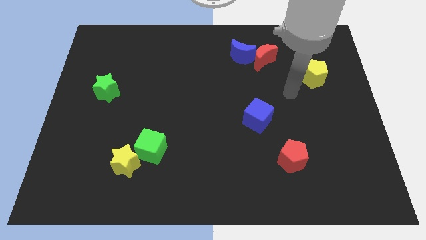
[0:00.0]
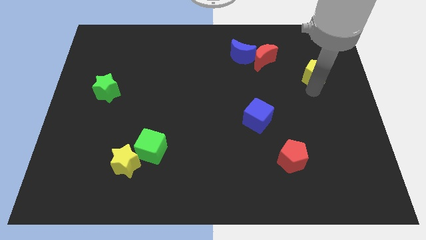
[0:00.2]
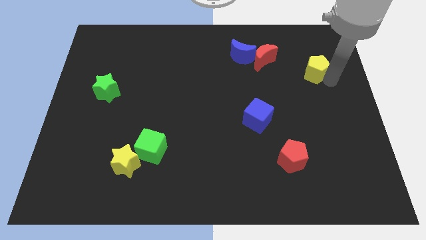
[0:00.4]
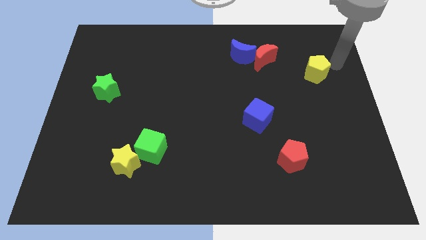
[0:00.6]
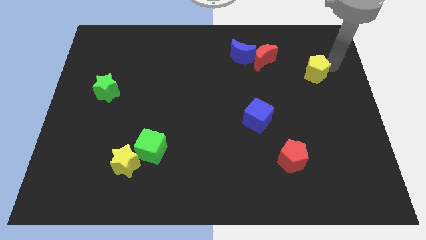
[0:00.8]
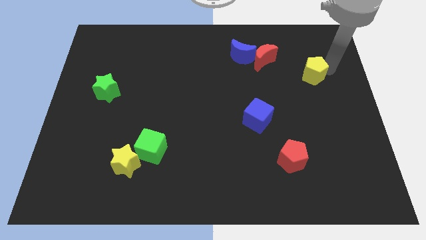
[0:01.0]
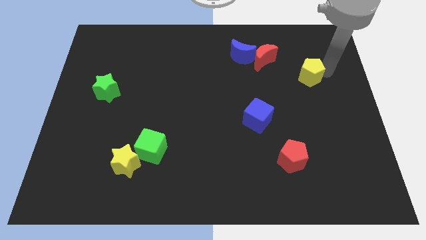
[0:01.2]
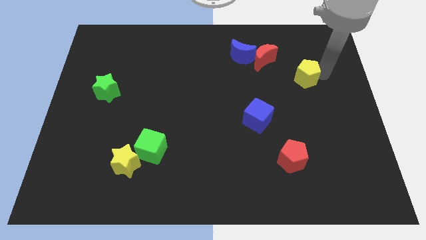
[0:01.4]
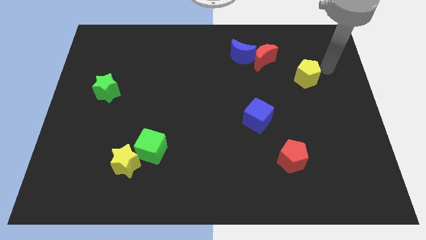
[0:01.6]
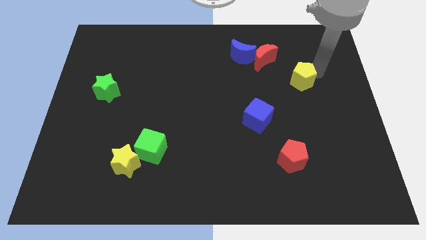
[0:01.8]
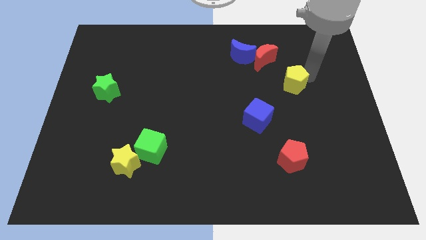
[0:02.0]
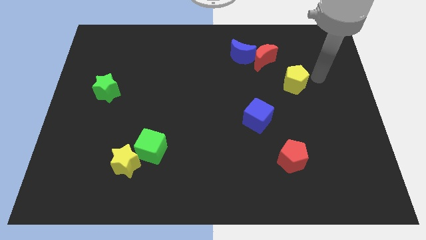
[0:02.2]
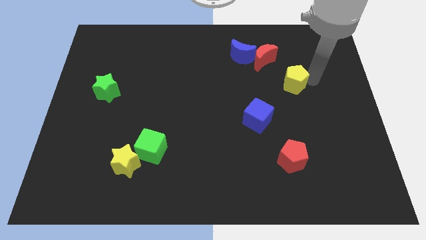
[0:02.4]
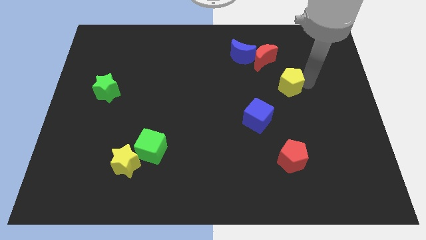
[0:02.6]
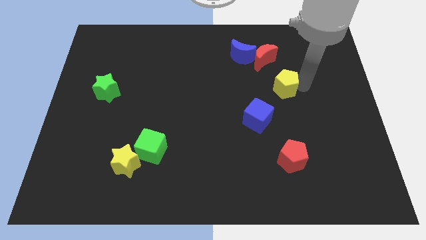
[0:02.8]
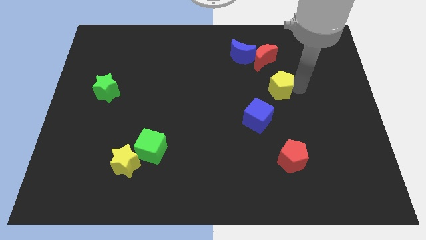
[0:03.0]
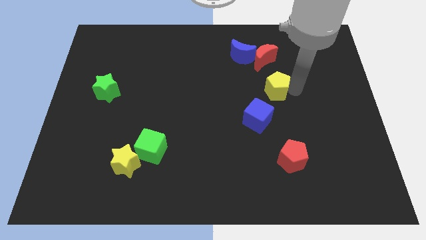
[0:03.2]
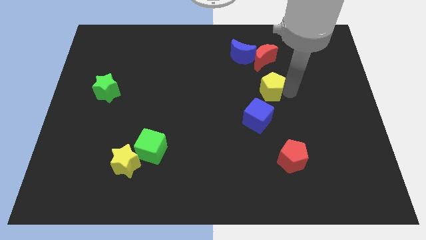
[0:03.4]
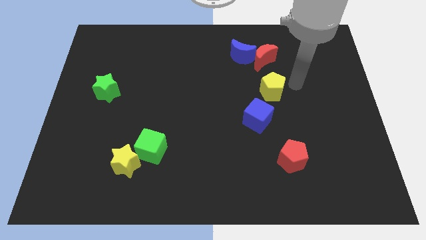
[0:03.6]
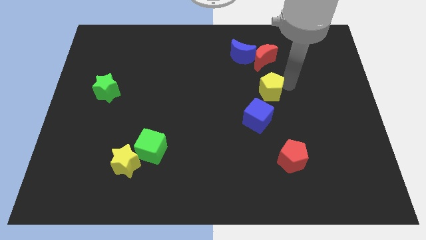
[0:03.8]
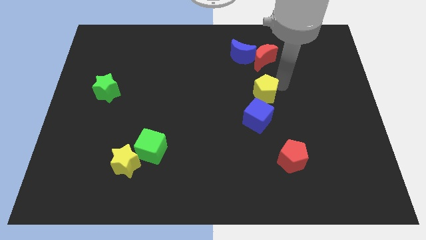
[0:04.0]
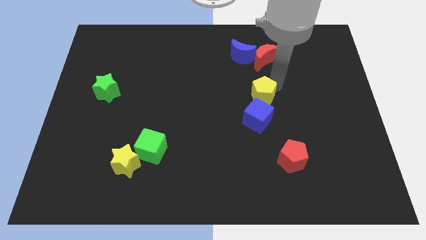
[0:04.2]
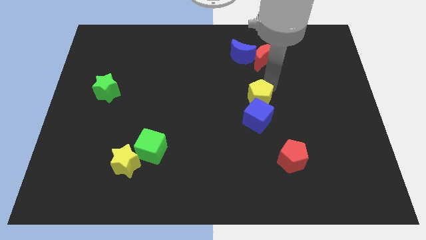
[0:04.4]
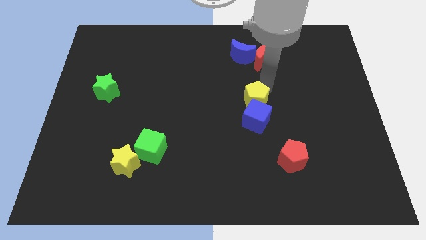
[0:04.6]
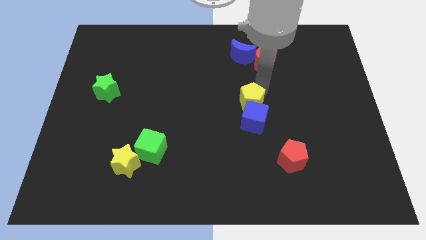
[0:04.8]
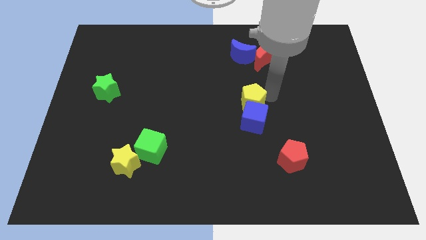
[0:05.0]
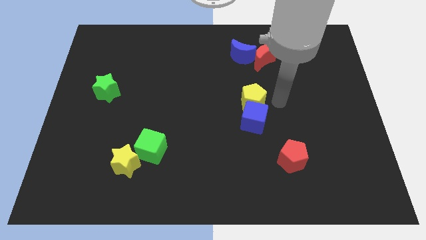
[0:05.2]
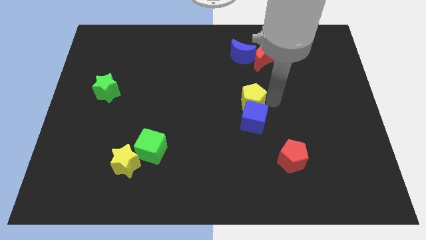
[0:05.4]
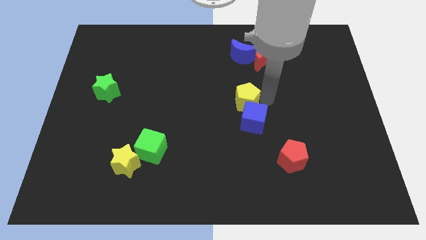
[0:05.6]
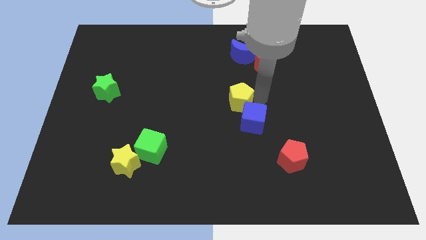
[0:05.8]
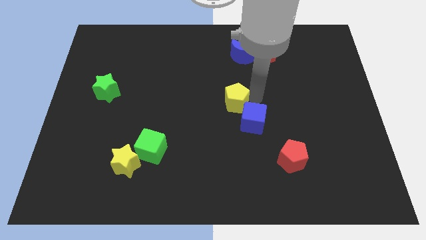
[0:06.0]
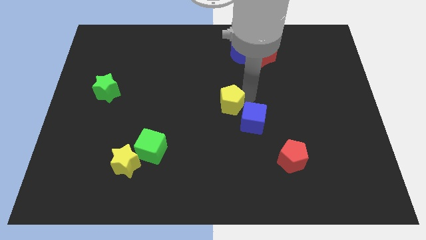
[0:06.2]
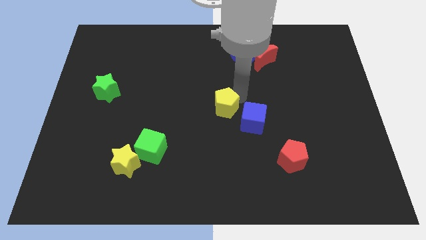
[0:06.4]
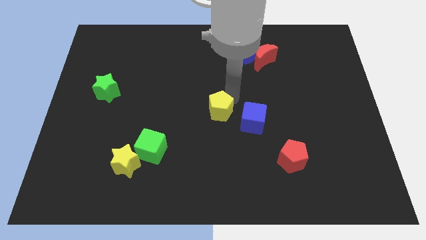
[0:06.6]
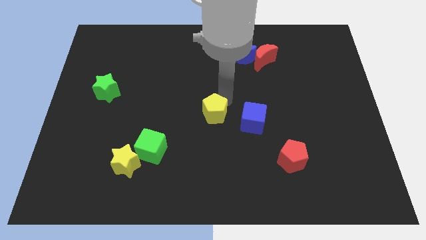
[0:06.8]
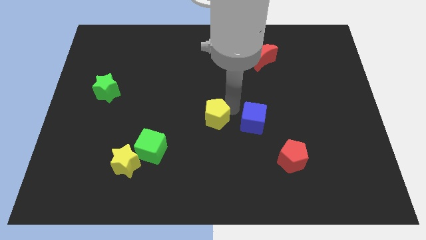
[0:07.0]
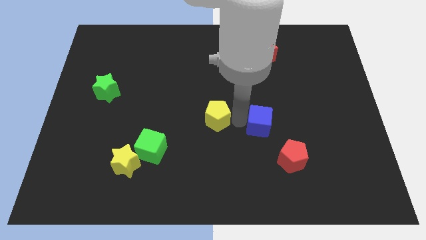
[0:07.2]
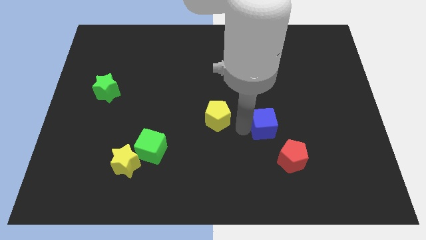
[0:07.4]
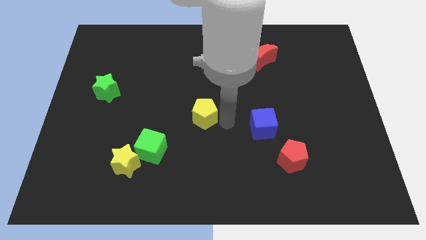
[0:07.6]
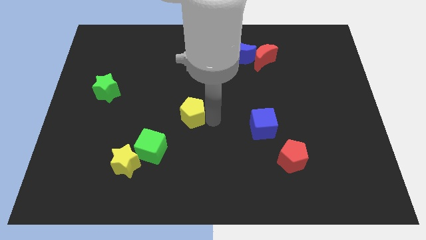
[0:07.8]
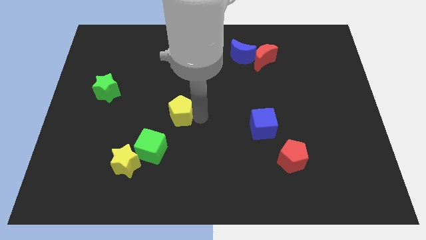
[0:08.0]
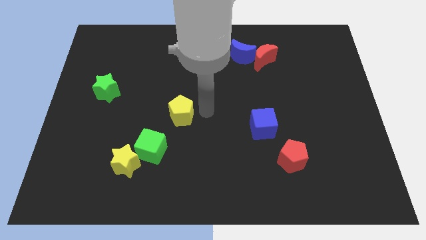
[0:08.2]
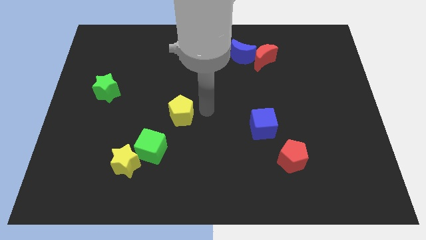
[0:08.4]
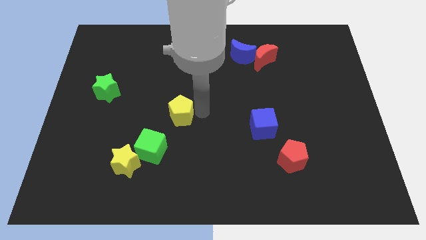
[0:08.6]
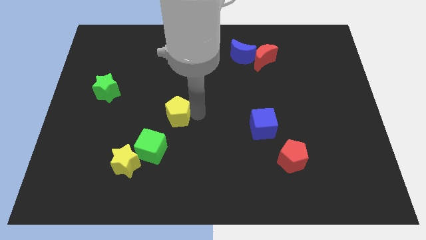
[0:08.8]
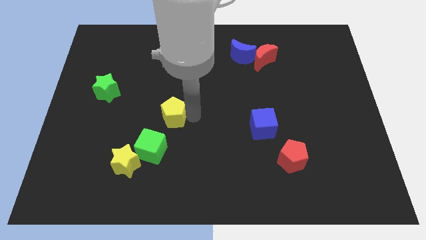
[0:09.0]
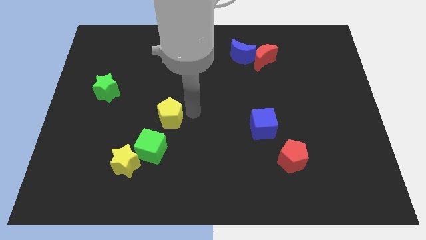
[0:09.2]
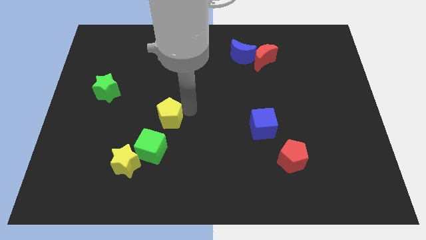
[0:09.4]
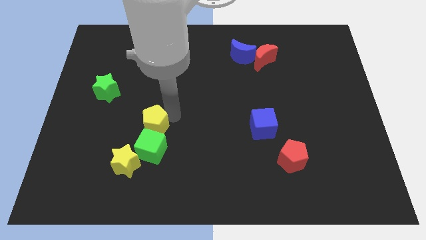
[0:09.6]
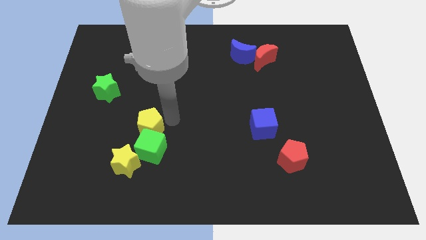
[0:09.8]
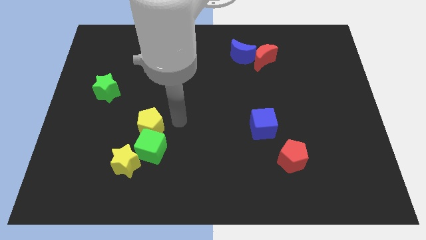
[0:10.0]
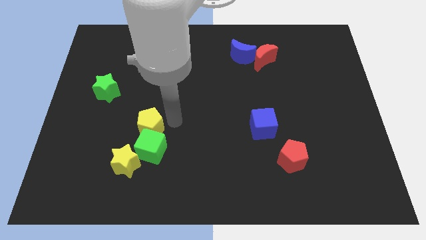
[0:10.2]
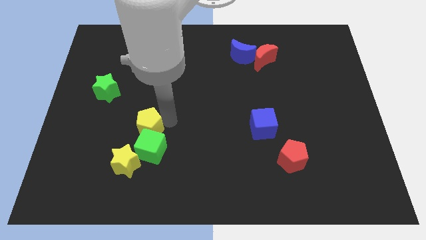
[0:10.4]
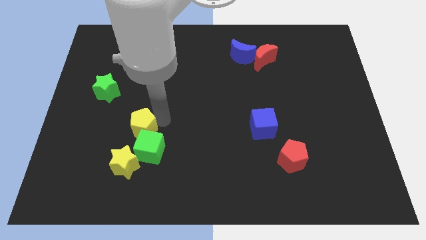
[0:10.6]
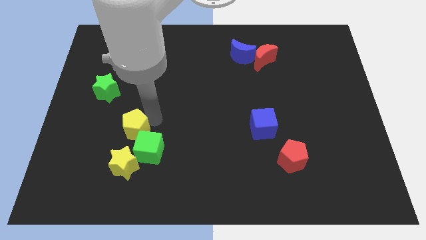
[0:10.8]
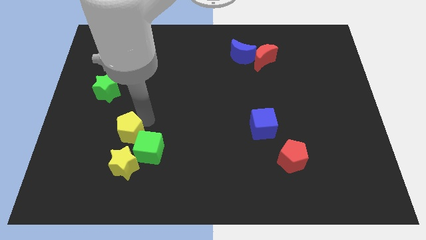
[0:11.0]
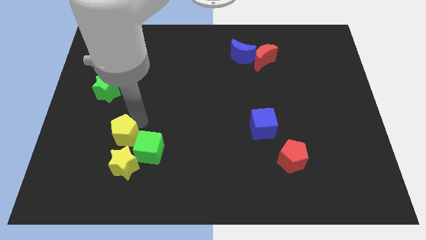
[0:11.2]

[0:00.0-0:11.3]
push the yellow pentagon to the top left of the yellow star

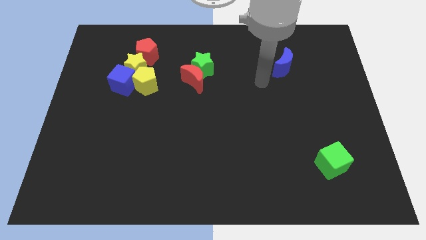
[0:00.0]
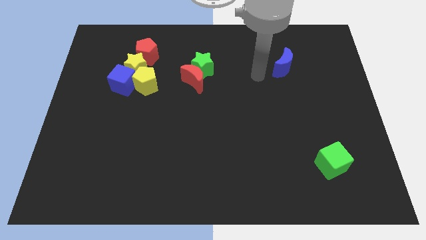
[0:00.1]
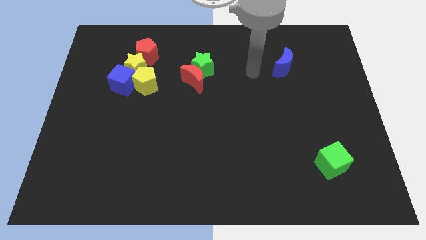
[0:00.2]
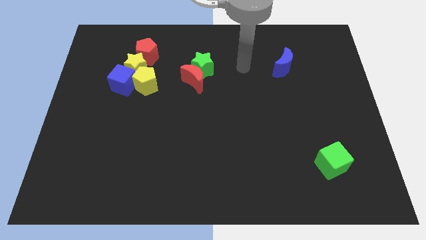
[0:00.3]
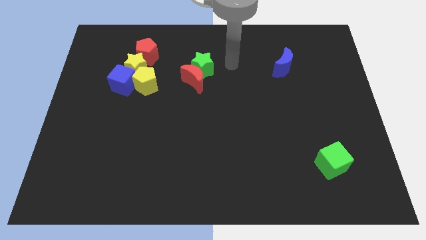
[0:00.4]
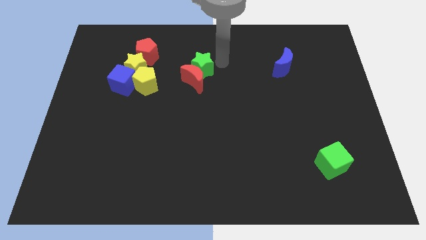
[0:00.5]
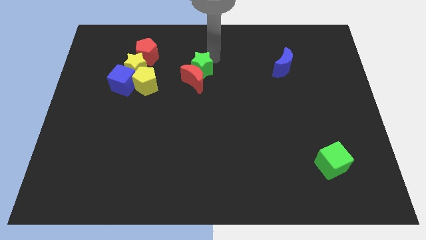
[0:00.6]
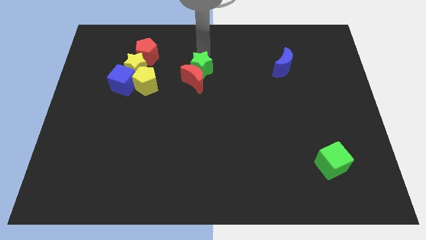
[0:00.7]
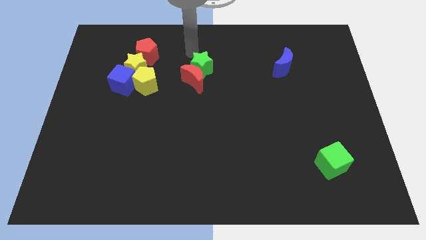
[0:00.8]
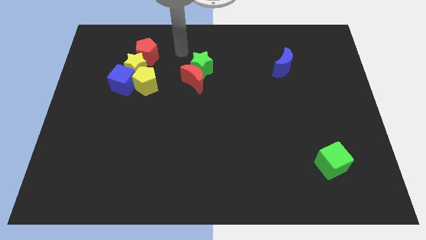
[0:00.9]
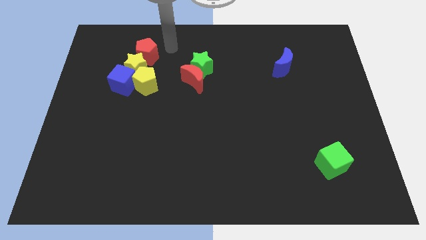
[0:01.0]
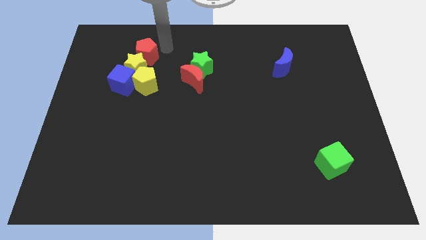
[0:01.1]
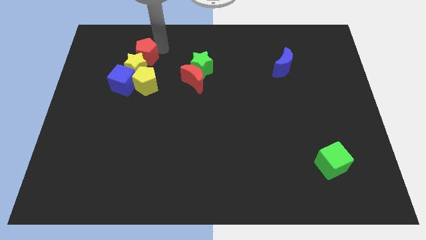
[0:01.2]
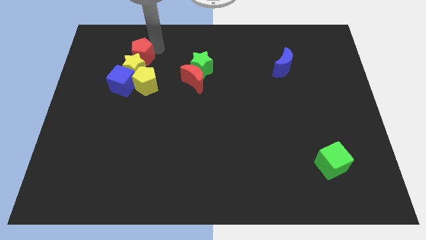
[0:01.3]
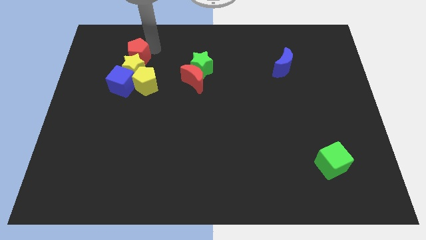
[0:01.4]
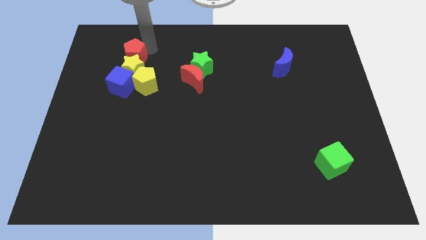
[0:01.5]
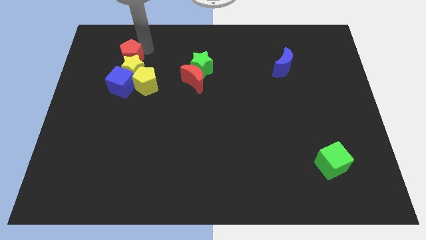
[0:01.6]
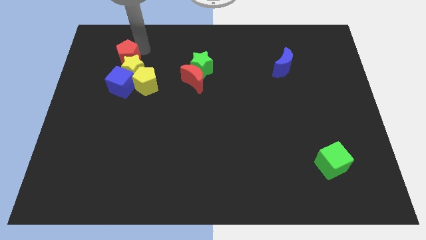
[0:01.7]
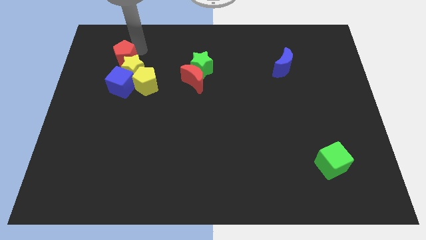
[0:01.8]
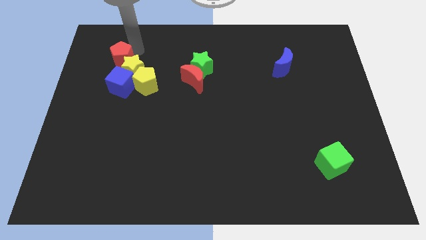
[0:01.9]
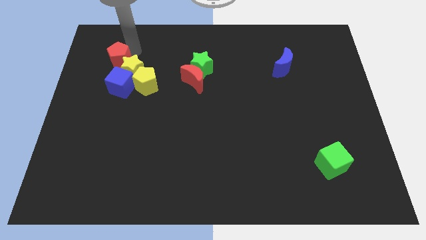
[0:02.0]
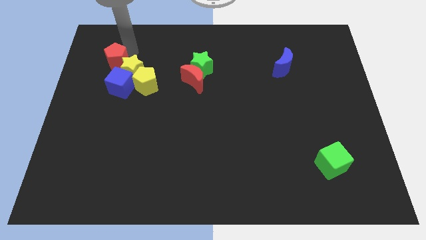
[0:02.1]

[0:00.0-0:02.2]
push the red pentagon to the top left of the blue cube
